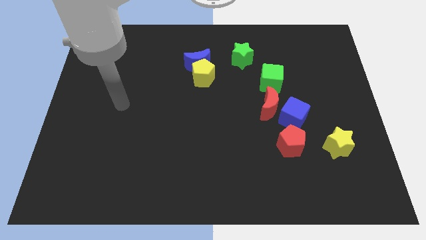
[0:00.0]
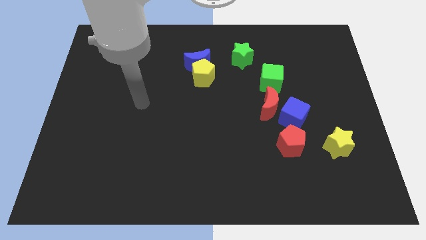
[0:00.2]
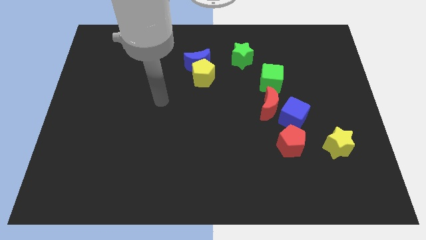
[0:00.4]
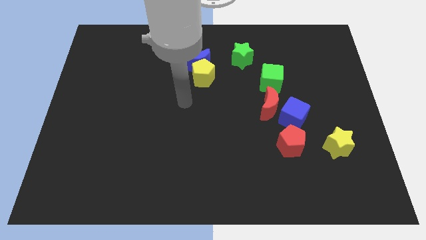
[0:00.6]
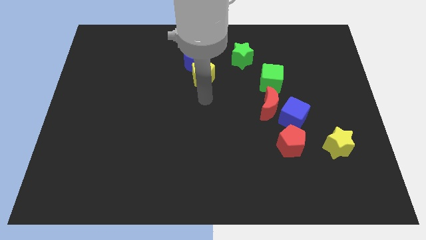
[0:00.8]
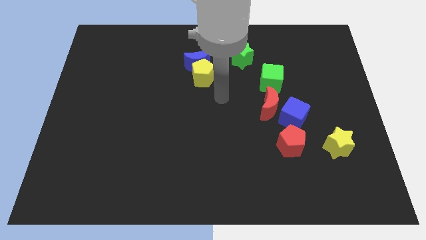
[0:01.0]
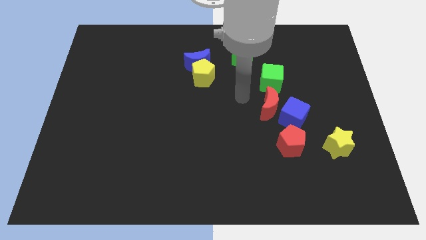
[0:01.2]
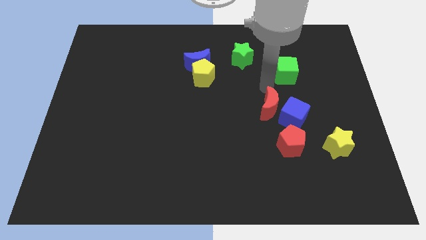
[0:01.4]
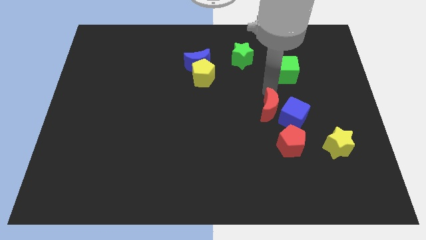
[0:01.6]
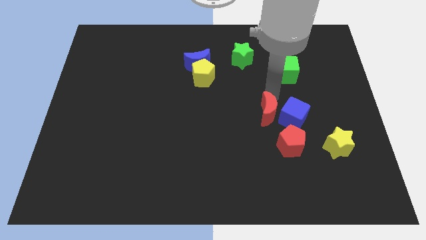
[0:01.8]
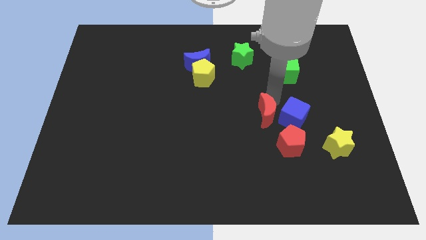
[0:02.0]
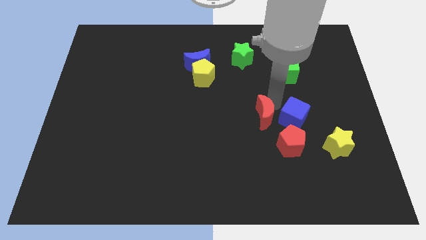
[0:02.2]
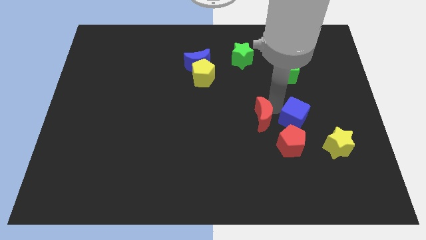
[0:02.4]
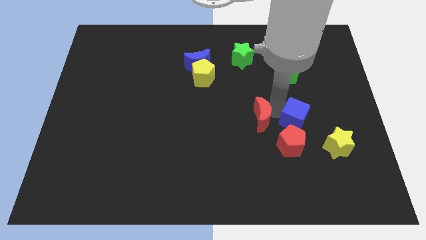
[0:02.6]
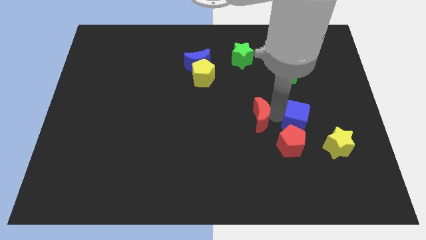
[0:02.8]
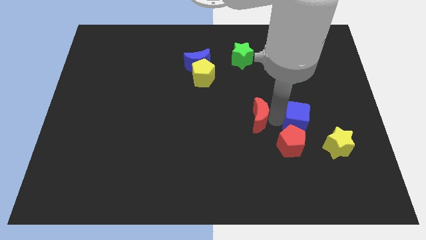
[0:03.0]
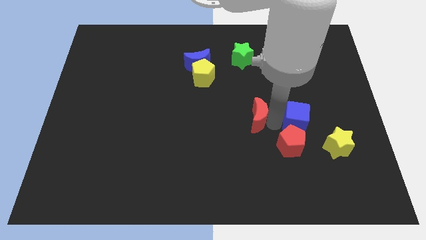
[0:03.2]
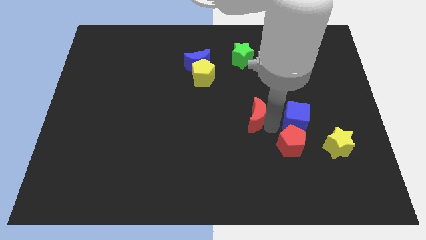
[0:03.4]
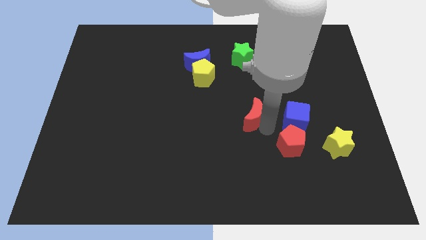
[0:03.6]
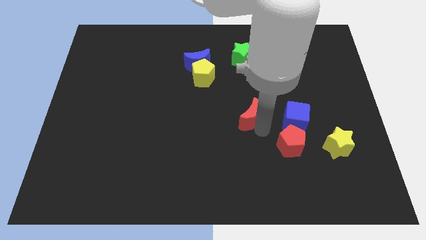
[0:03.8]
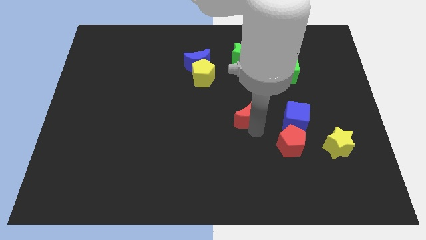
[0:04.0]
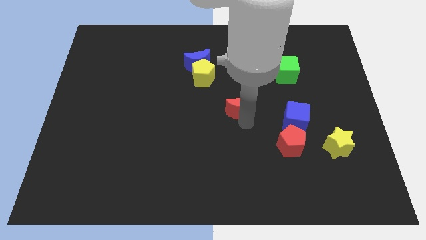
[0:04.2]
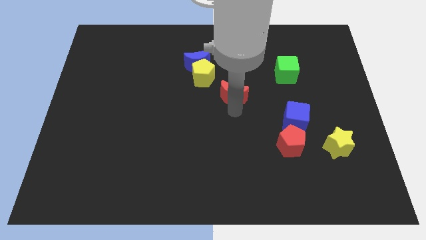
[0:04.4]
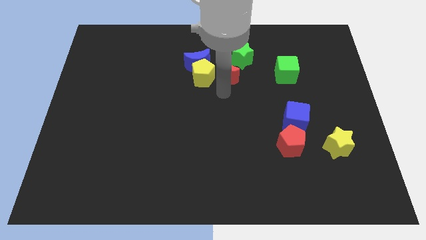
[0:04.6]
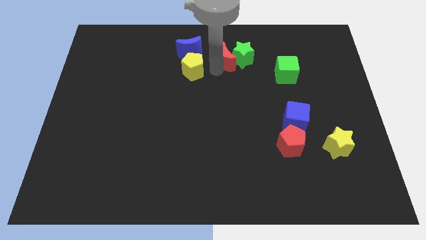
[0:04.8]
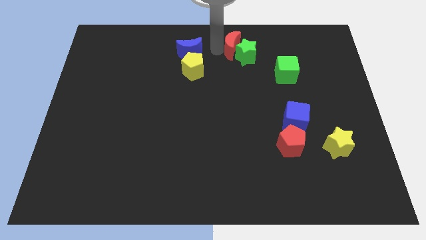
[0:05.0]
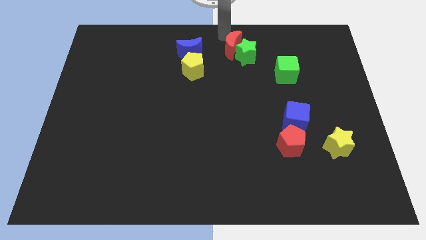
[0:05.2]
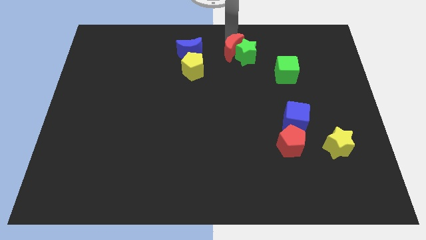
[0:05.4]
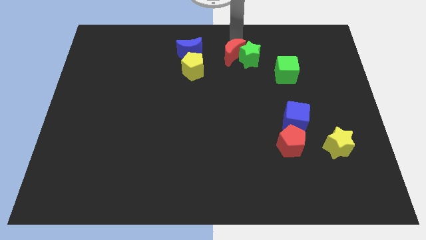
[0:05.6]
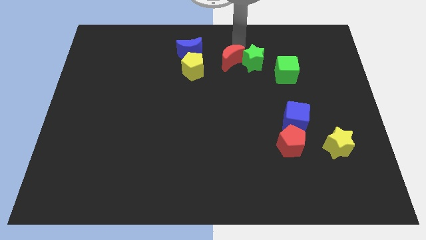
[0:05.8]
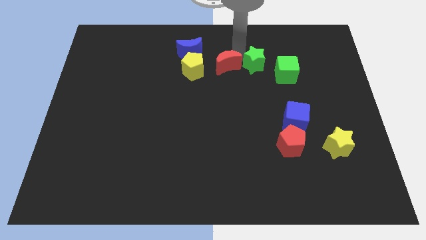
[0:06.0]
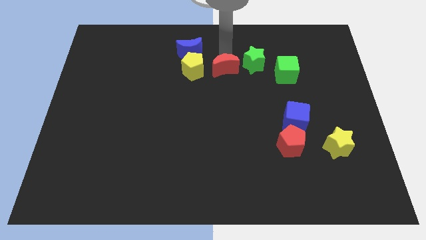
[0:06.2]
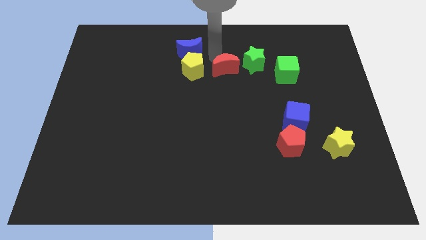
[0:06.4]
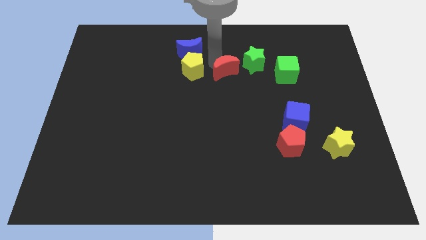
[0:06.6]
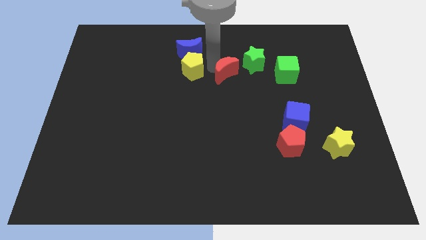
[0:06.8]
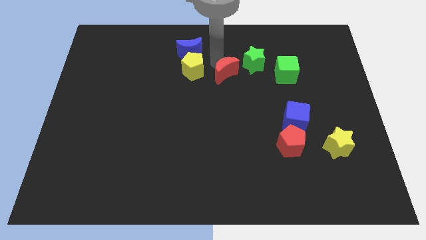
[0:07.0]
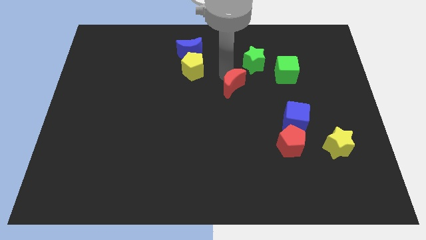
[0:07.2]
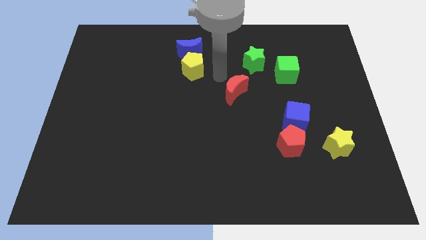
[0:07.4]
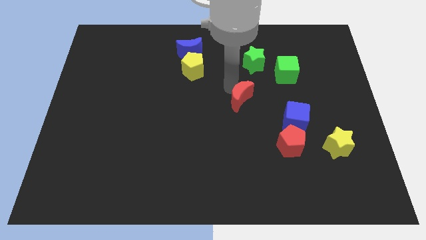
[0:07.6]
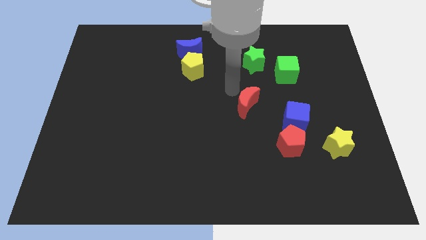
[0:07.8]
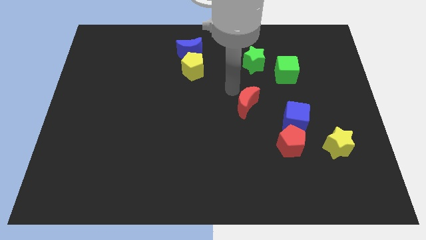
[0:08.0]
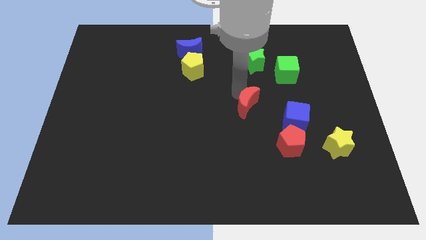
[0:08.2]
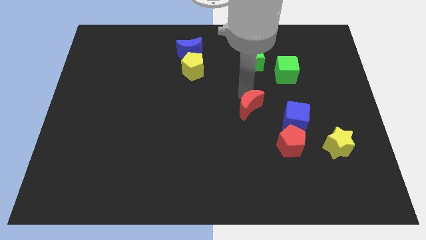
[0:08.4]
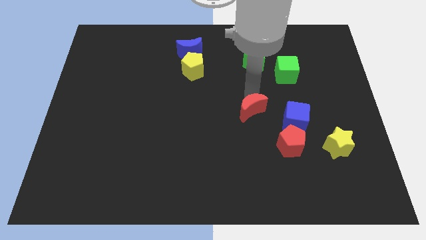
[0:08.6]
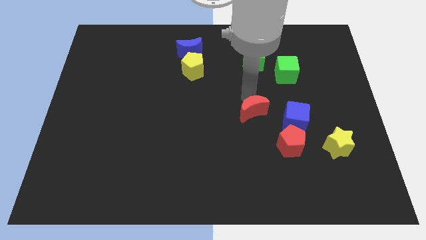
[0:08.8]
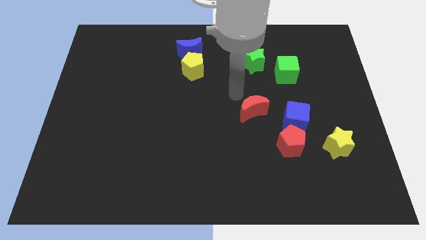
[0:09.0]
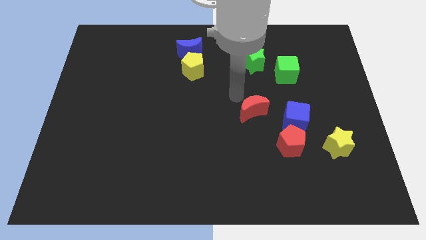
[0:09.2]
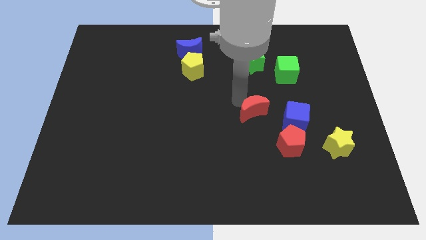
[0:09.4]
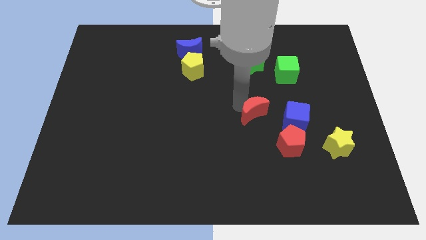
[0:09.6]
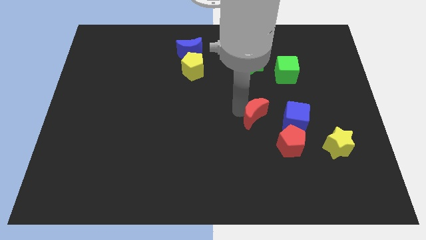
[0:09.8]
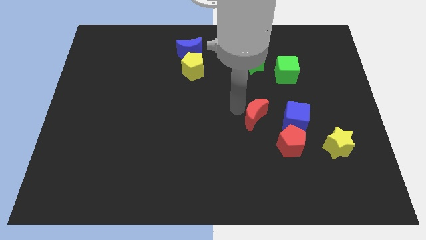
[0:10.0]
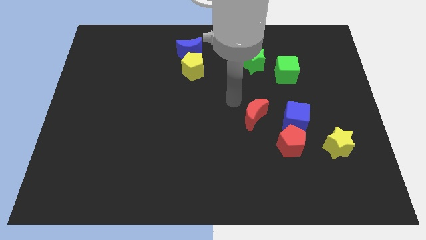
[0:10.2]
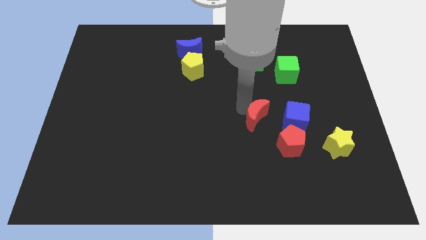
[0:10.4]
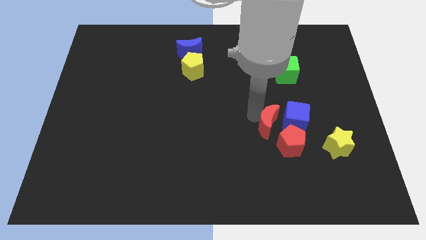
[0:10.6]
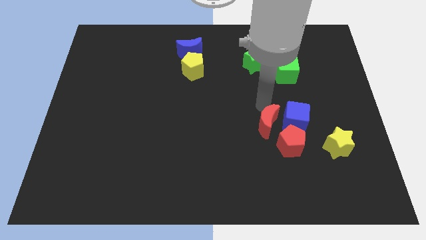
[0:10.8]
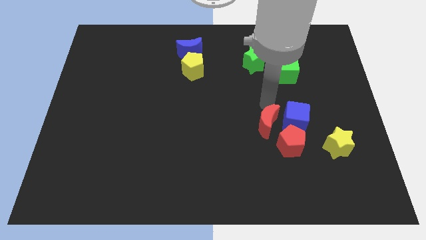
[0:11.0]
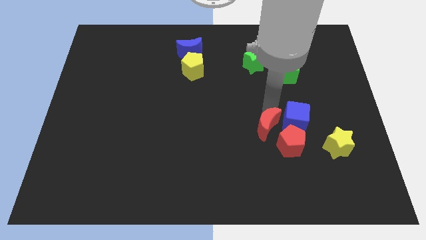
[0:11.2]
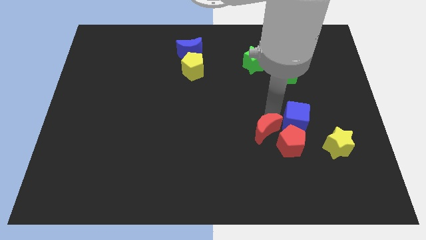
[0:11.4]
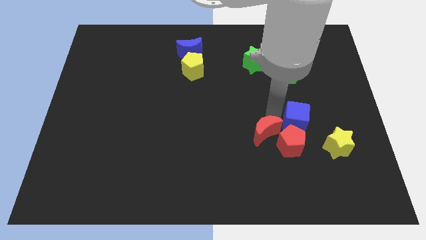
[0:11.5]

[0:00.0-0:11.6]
slightly push the red moon downwards

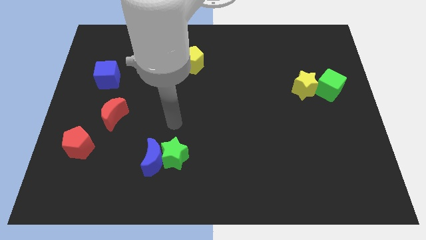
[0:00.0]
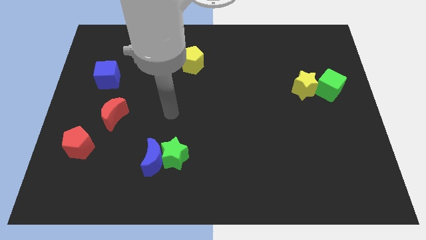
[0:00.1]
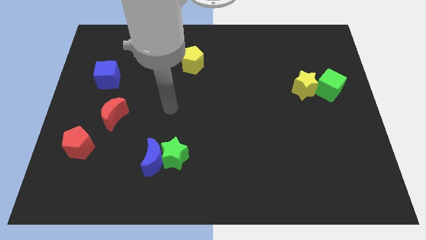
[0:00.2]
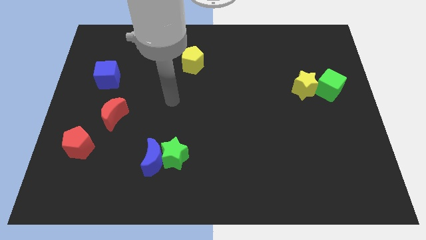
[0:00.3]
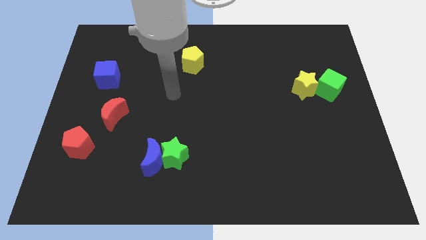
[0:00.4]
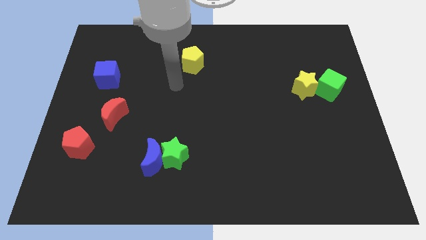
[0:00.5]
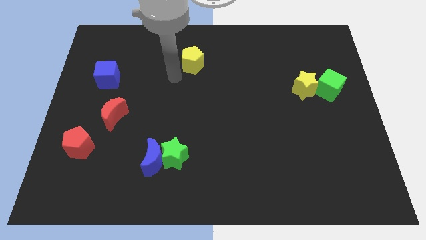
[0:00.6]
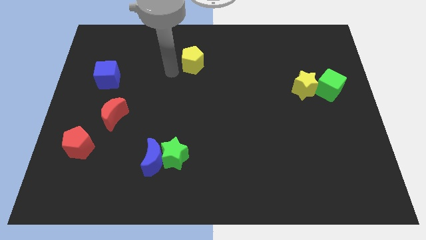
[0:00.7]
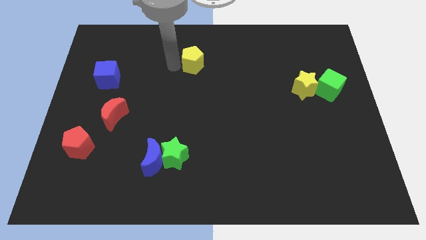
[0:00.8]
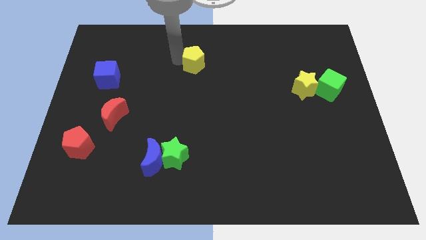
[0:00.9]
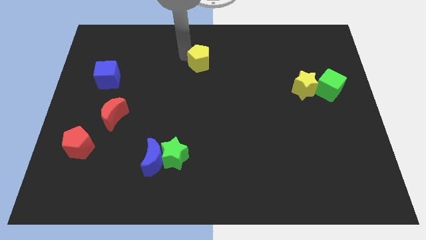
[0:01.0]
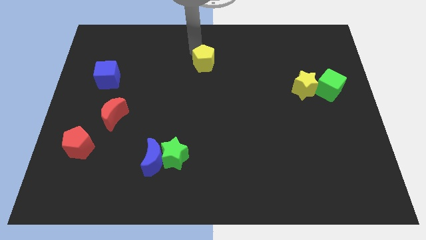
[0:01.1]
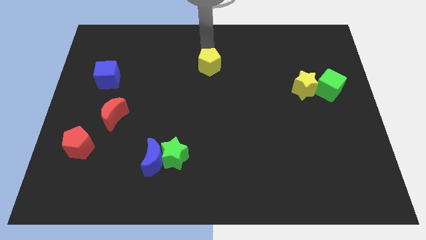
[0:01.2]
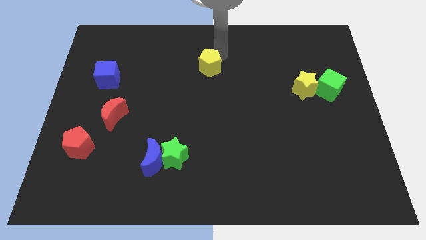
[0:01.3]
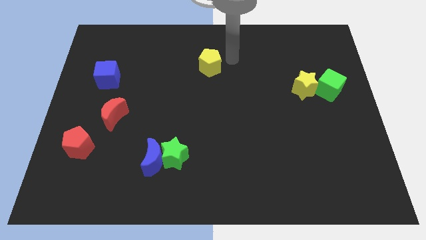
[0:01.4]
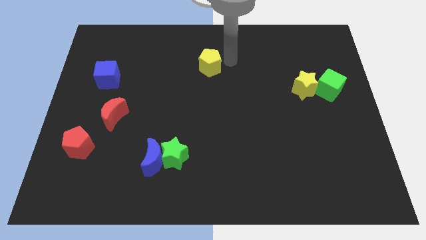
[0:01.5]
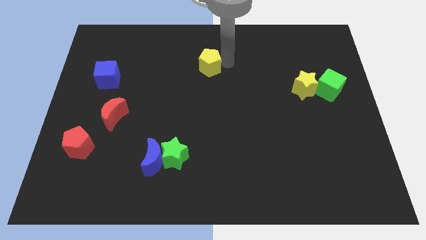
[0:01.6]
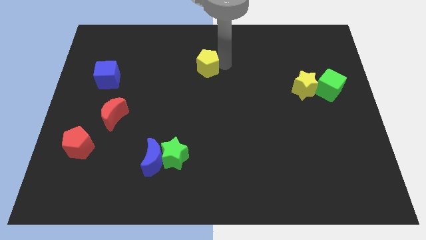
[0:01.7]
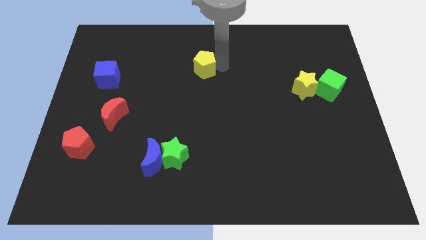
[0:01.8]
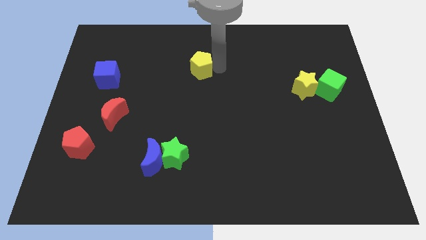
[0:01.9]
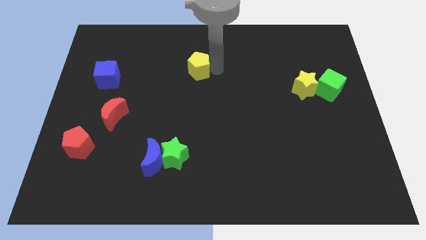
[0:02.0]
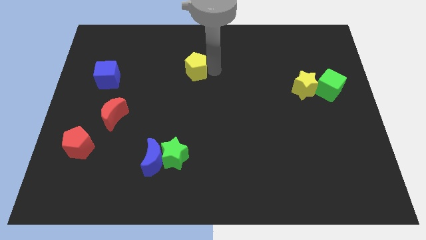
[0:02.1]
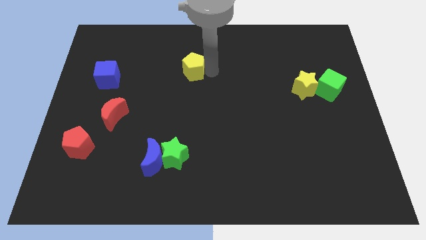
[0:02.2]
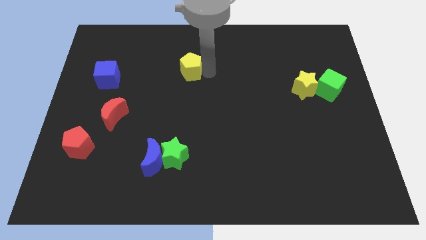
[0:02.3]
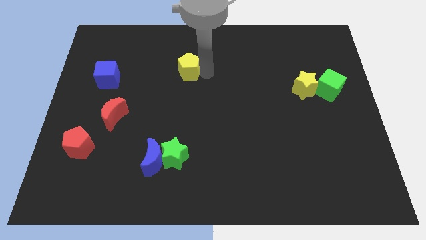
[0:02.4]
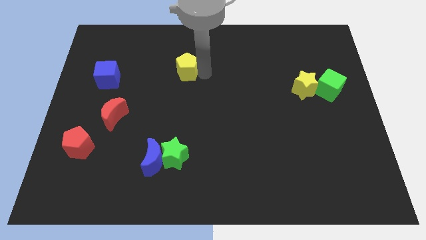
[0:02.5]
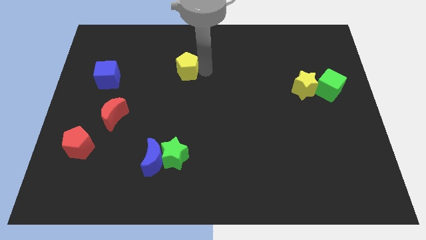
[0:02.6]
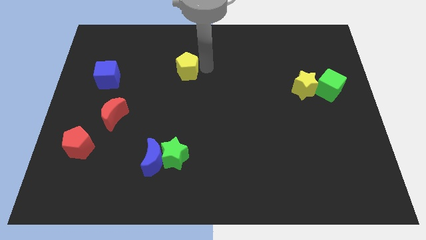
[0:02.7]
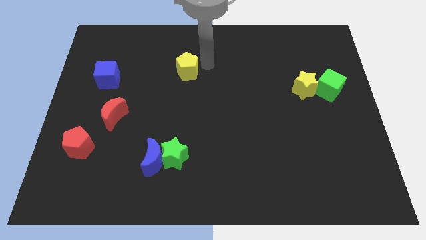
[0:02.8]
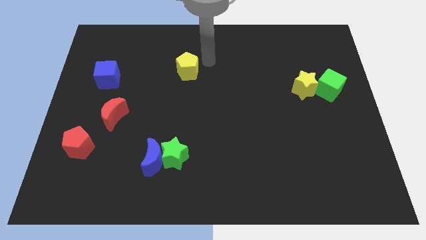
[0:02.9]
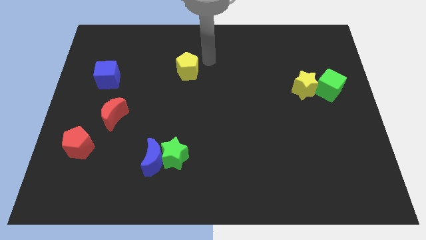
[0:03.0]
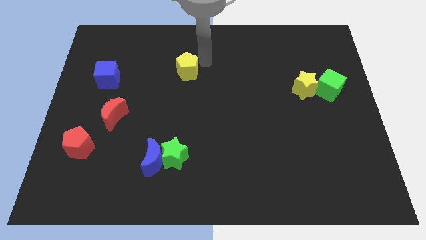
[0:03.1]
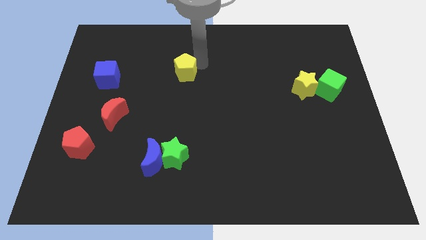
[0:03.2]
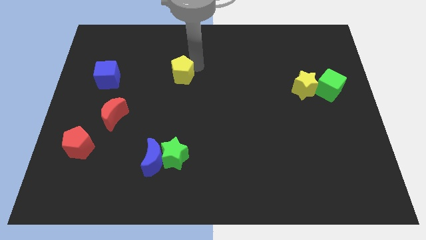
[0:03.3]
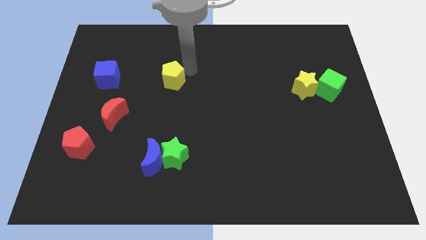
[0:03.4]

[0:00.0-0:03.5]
slightly push the yellow pentagon downwards and to the left
